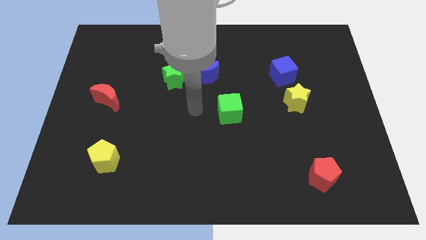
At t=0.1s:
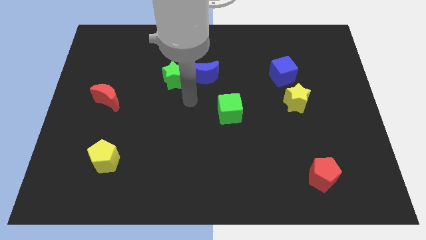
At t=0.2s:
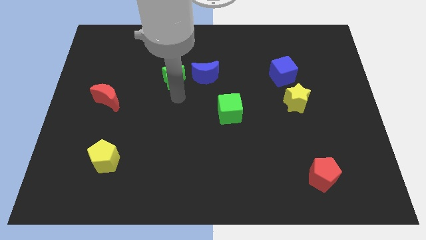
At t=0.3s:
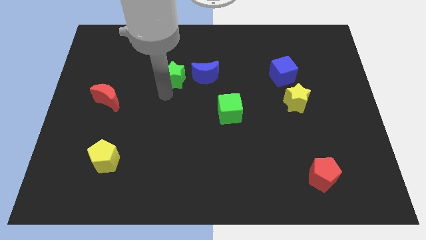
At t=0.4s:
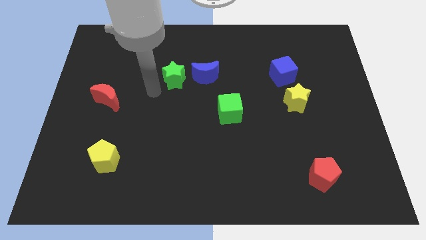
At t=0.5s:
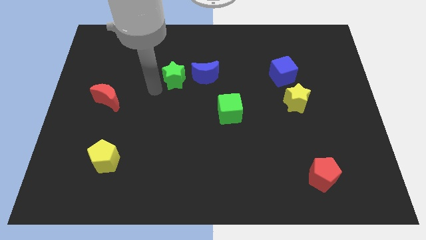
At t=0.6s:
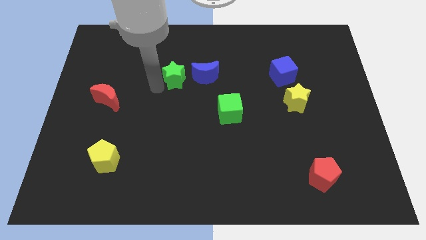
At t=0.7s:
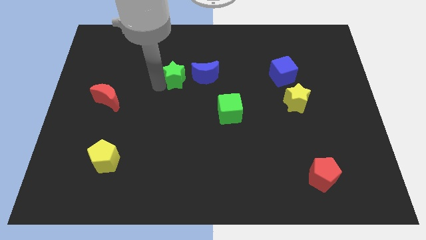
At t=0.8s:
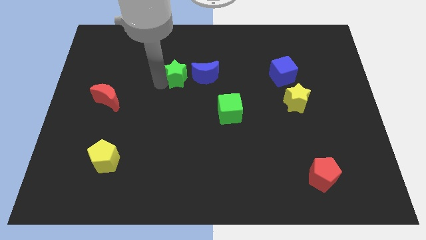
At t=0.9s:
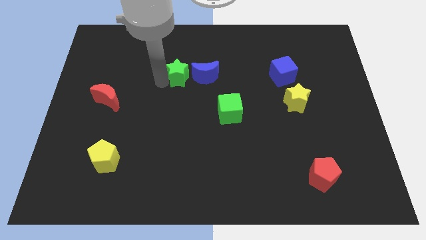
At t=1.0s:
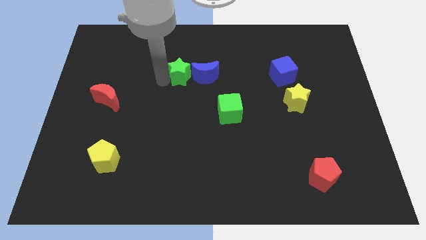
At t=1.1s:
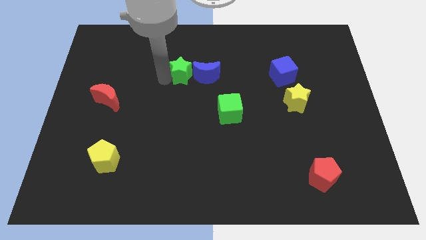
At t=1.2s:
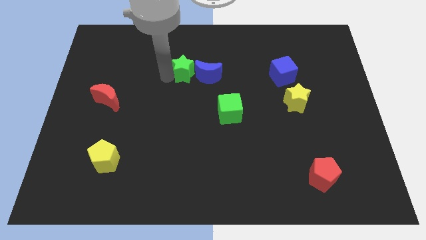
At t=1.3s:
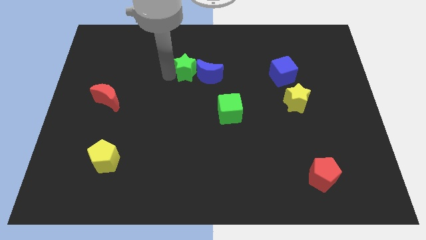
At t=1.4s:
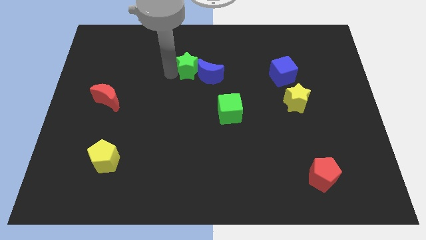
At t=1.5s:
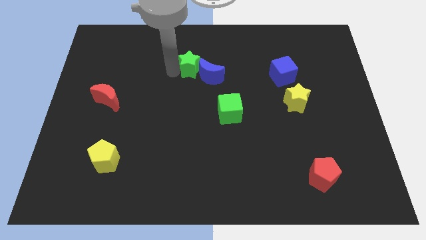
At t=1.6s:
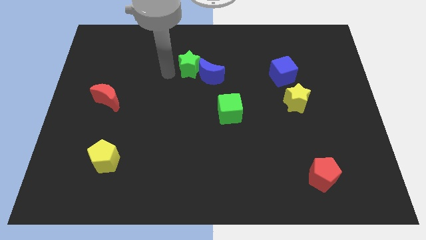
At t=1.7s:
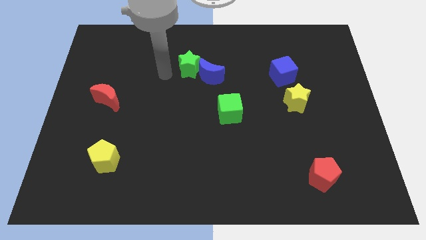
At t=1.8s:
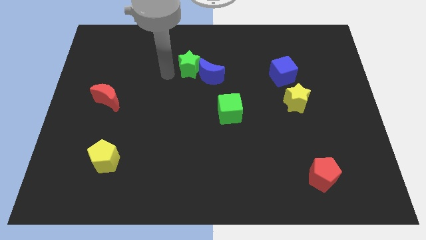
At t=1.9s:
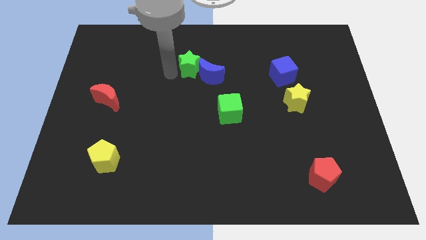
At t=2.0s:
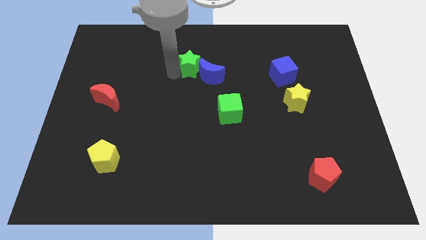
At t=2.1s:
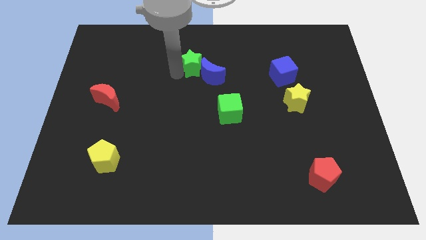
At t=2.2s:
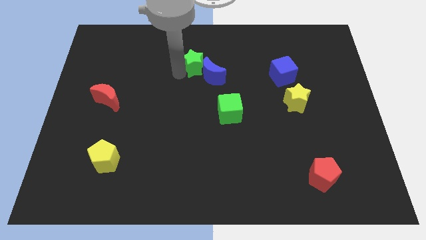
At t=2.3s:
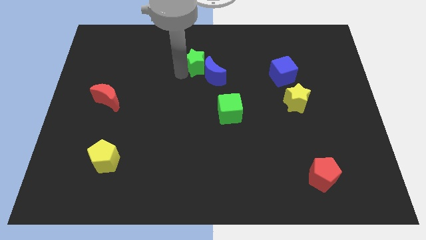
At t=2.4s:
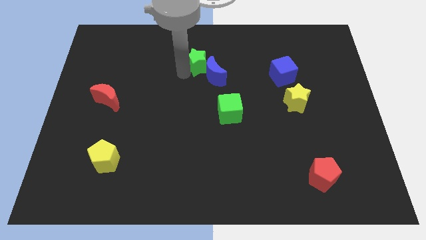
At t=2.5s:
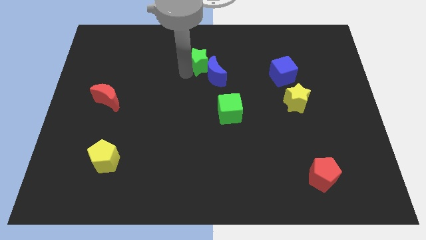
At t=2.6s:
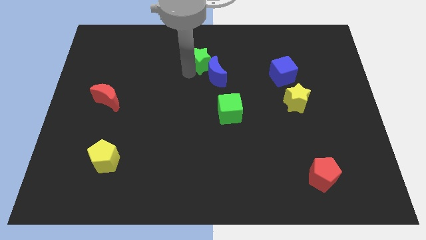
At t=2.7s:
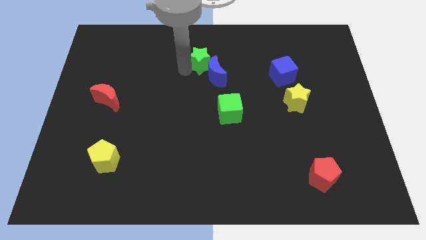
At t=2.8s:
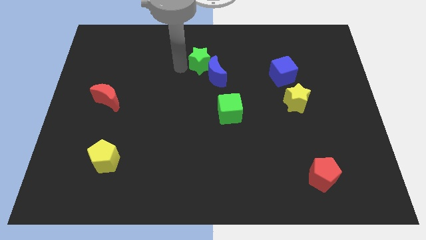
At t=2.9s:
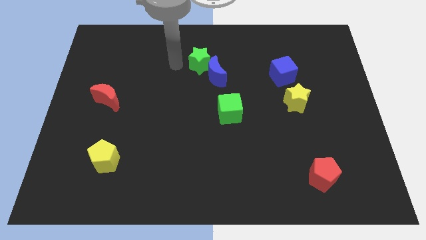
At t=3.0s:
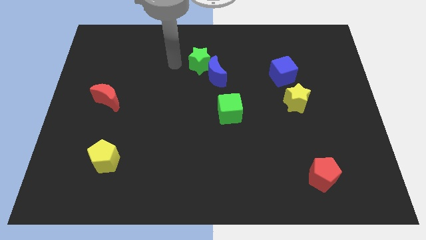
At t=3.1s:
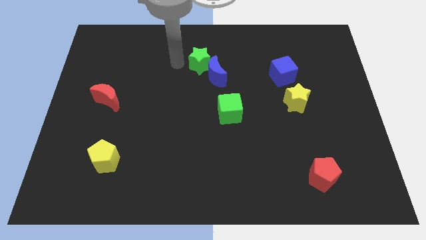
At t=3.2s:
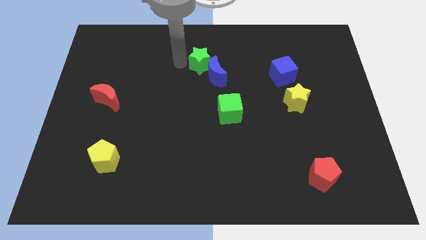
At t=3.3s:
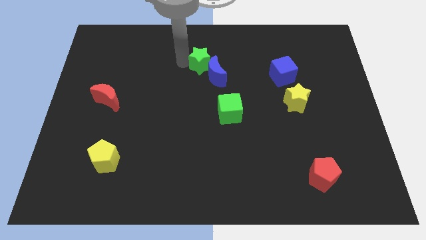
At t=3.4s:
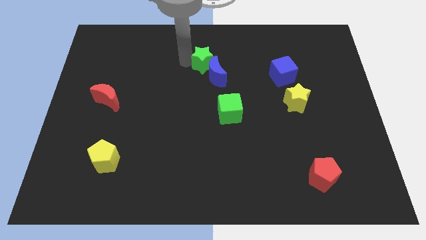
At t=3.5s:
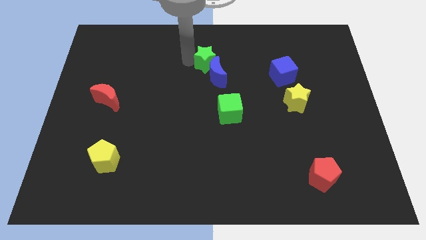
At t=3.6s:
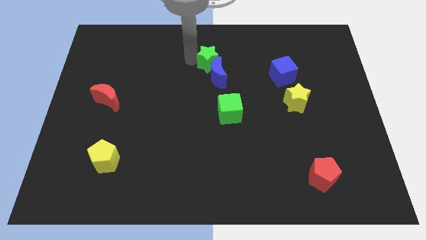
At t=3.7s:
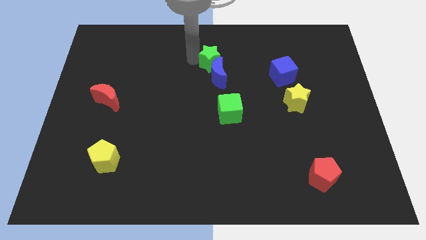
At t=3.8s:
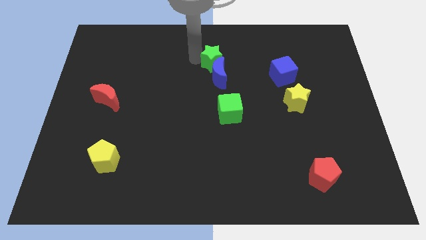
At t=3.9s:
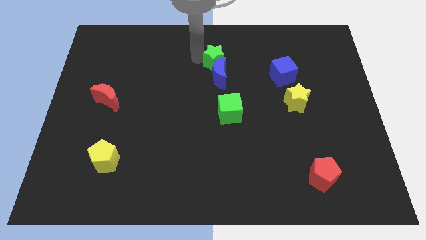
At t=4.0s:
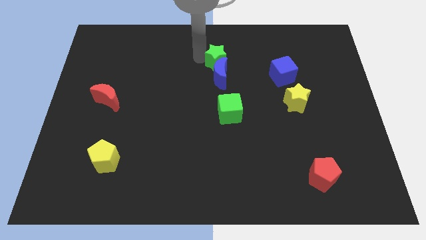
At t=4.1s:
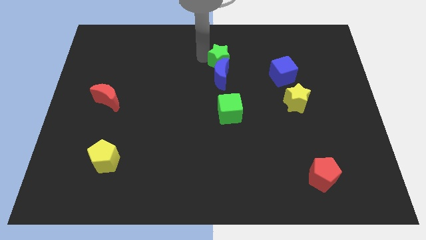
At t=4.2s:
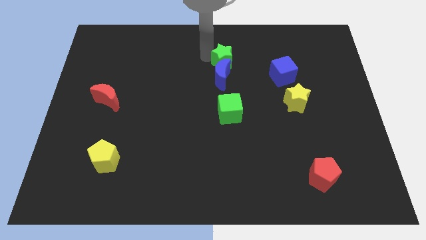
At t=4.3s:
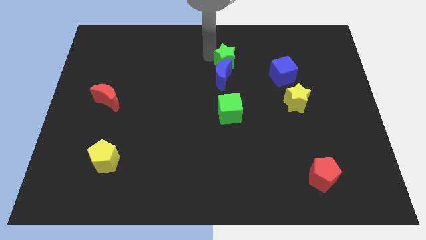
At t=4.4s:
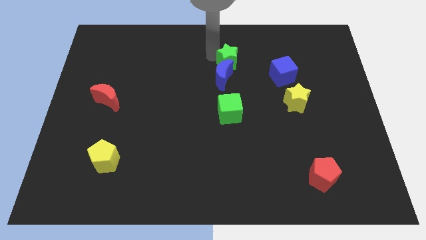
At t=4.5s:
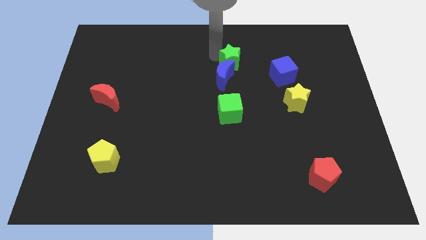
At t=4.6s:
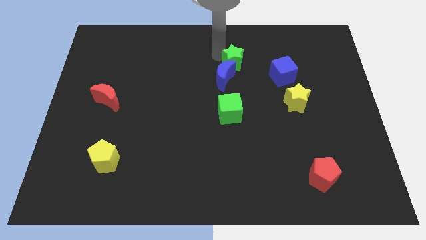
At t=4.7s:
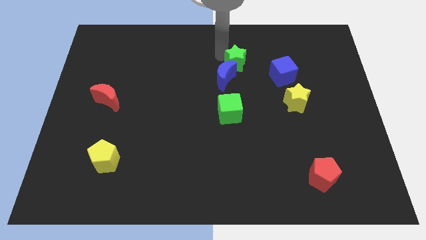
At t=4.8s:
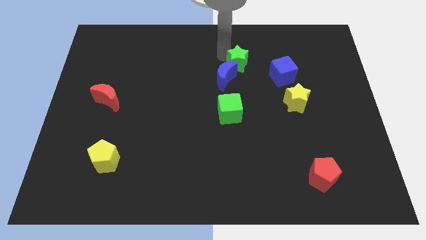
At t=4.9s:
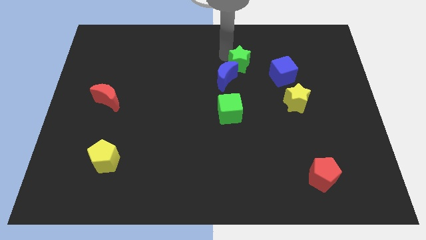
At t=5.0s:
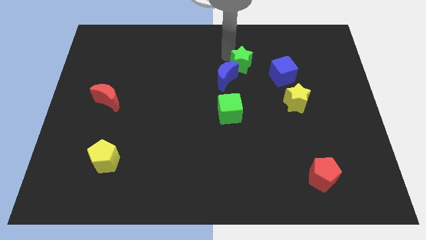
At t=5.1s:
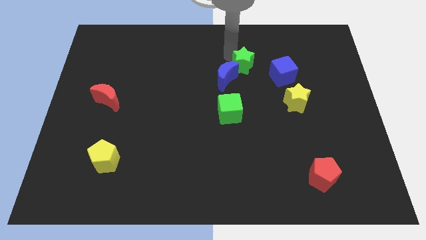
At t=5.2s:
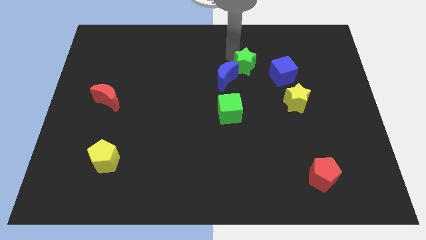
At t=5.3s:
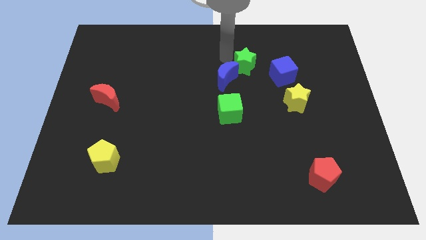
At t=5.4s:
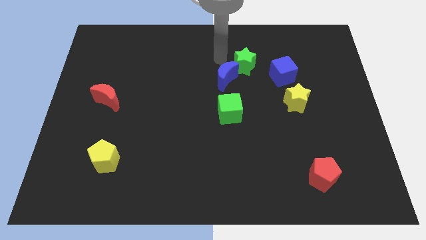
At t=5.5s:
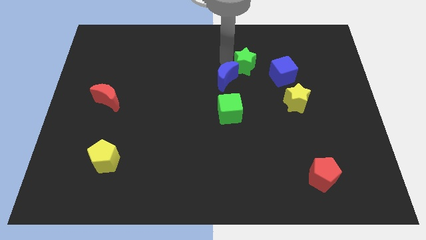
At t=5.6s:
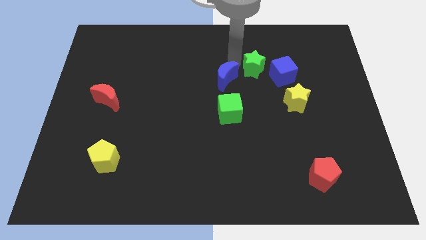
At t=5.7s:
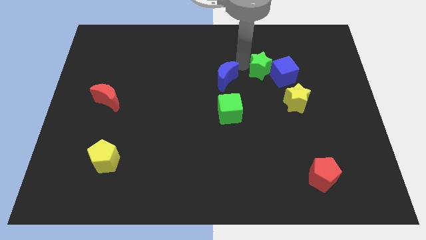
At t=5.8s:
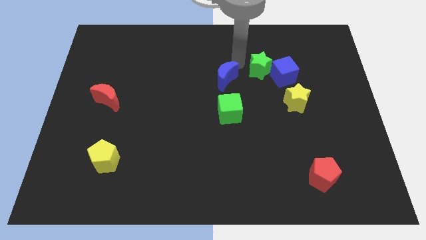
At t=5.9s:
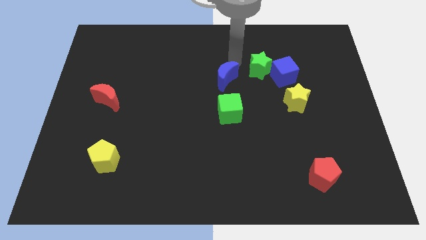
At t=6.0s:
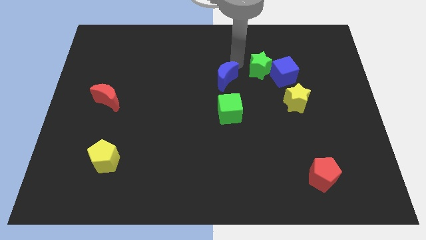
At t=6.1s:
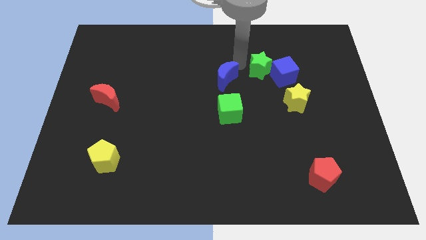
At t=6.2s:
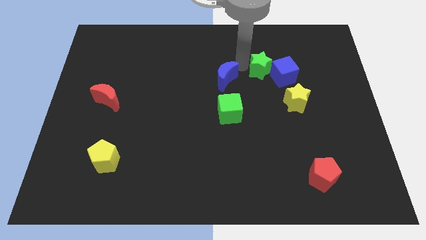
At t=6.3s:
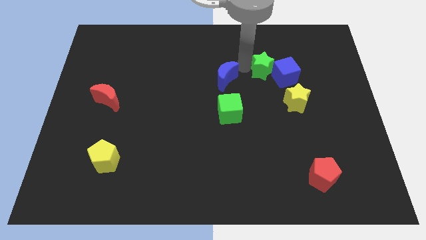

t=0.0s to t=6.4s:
slide the green star next to the blue cube

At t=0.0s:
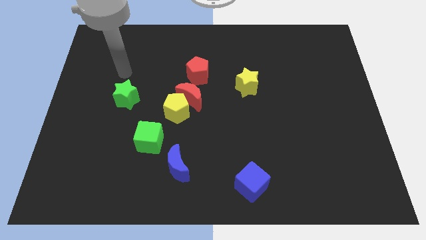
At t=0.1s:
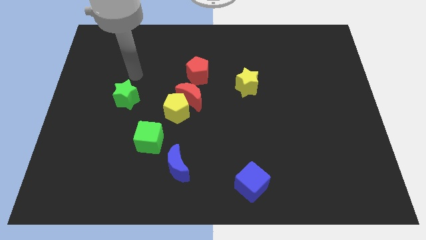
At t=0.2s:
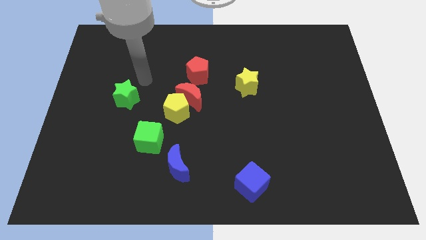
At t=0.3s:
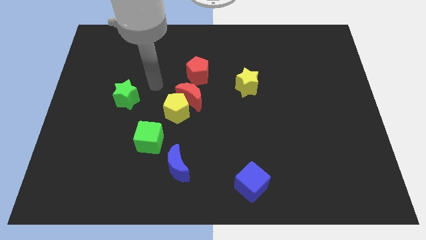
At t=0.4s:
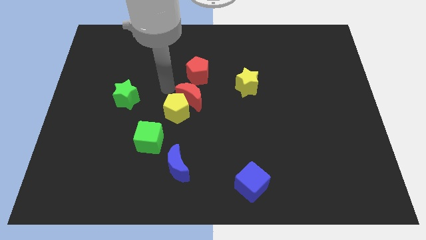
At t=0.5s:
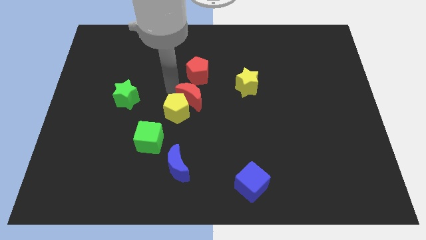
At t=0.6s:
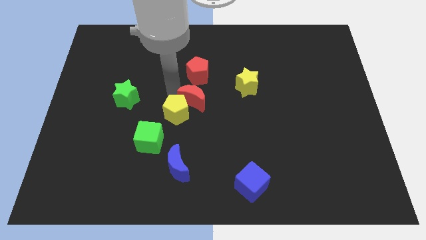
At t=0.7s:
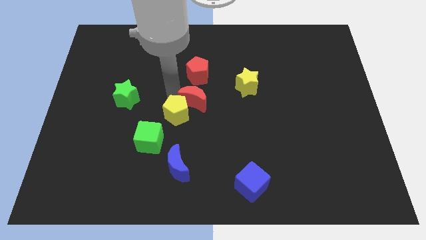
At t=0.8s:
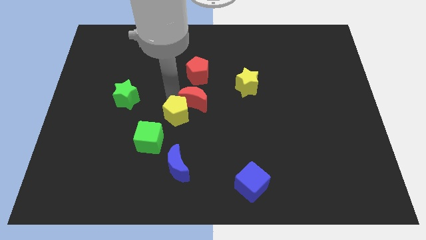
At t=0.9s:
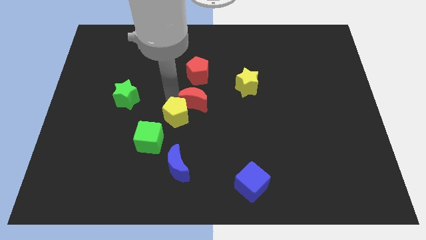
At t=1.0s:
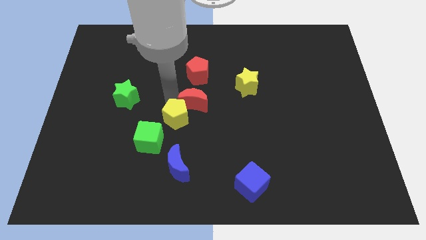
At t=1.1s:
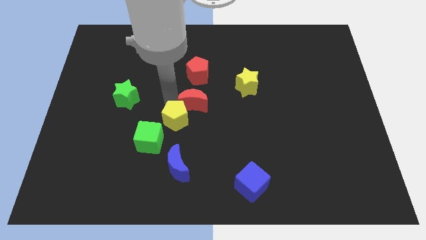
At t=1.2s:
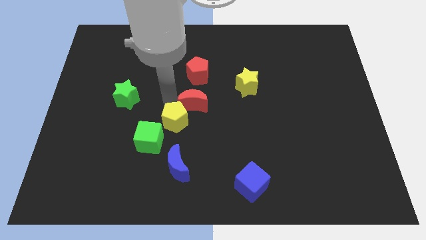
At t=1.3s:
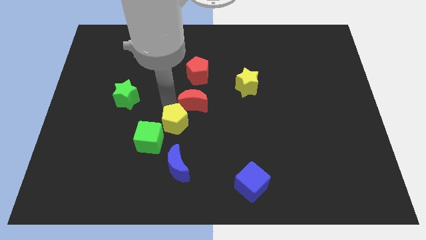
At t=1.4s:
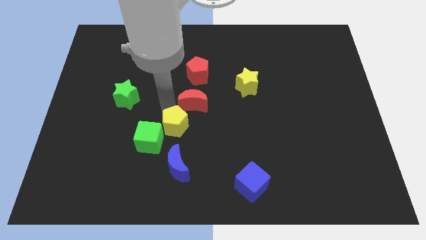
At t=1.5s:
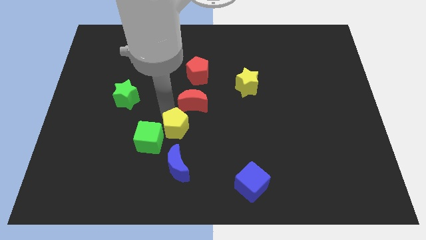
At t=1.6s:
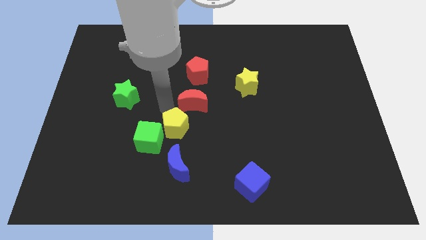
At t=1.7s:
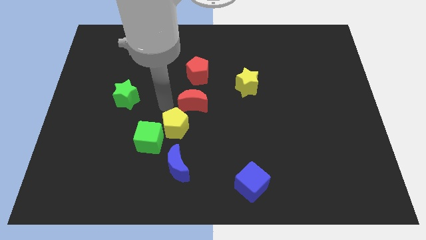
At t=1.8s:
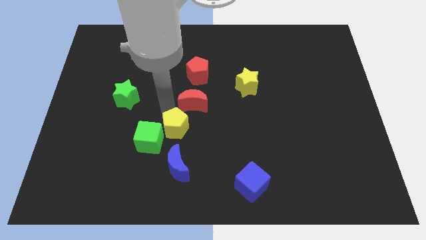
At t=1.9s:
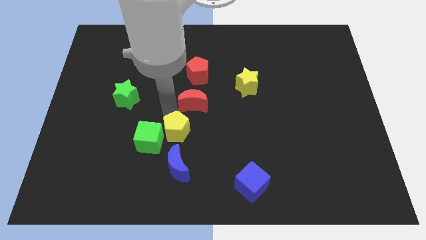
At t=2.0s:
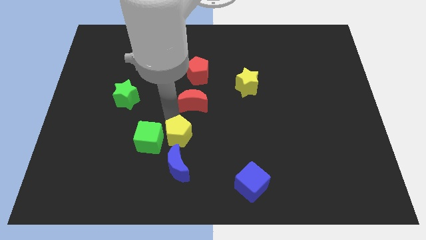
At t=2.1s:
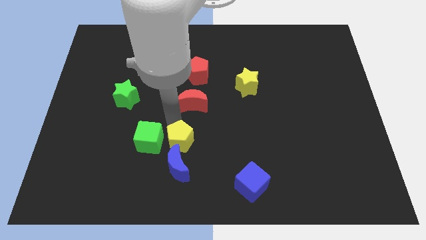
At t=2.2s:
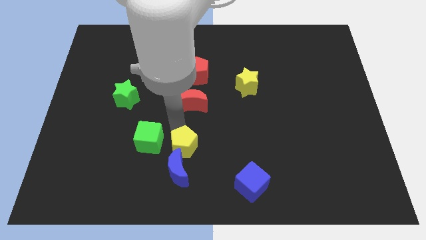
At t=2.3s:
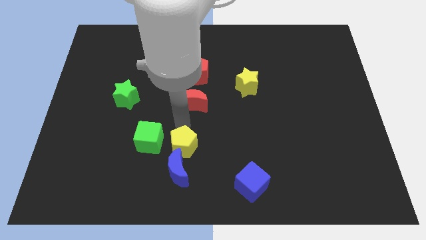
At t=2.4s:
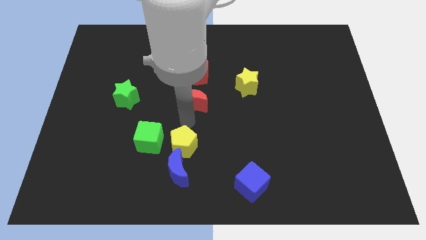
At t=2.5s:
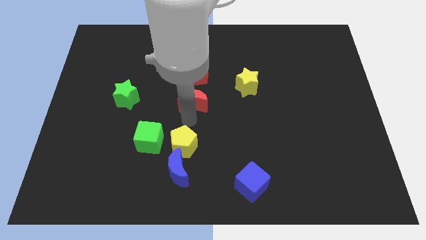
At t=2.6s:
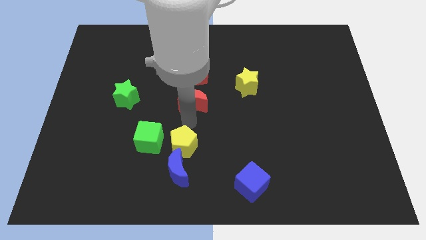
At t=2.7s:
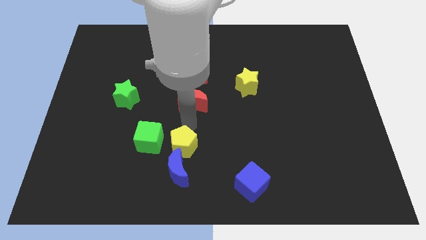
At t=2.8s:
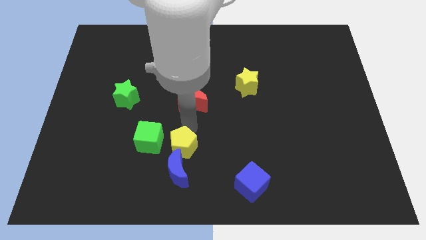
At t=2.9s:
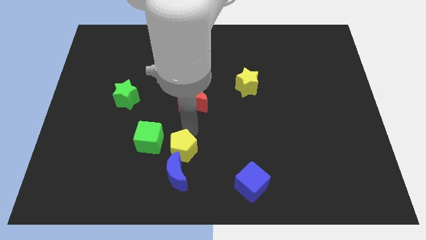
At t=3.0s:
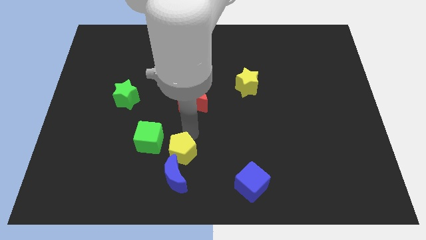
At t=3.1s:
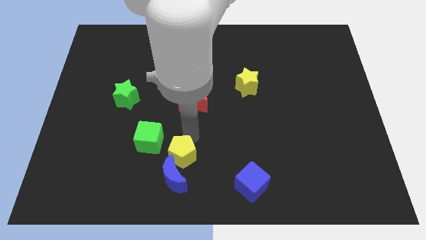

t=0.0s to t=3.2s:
push the yellow pentagon to the blue moon
